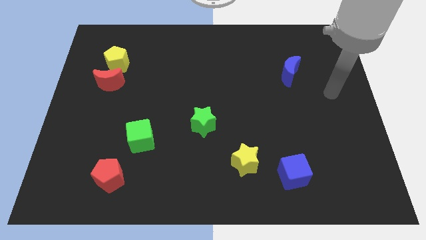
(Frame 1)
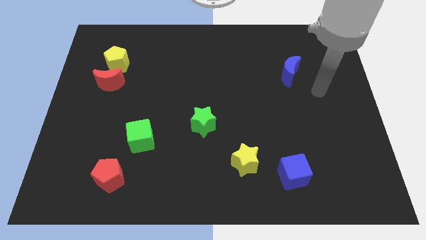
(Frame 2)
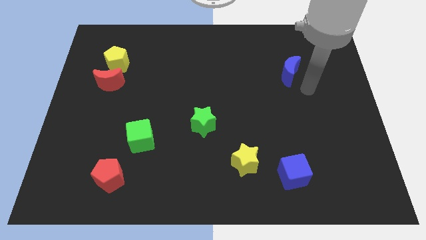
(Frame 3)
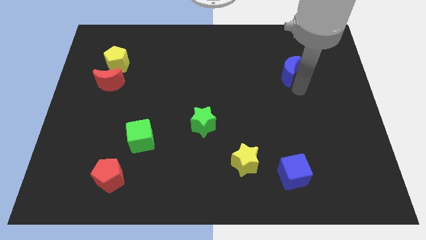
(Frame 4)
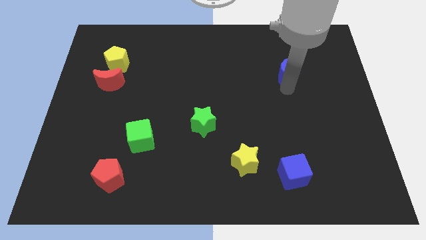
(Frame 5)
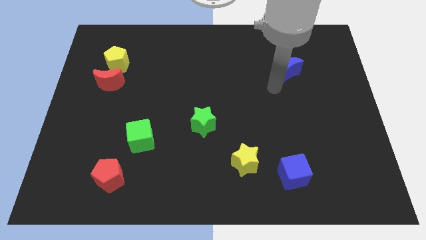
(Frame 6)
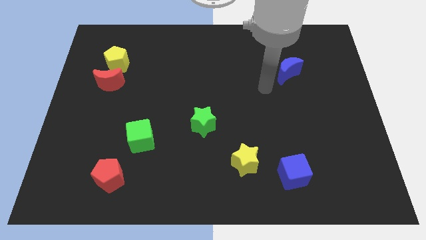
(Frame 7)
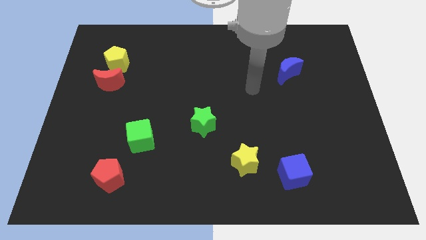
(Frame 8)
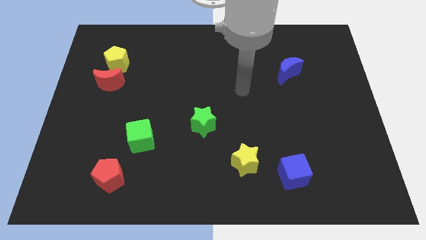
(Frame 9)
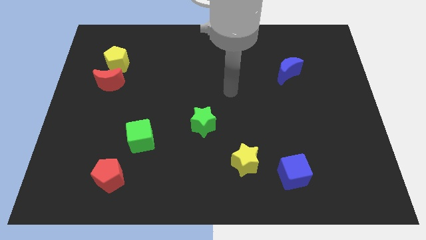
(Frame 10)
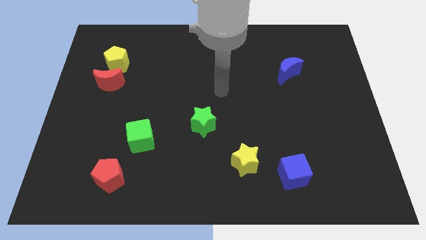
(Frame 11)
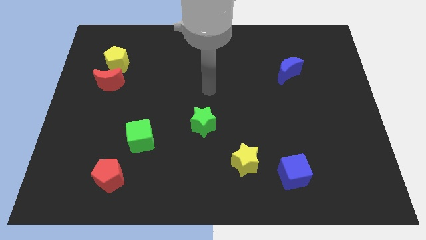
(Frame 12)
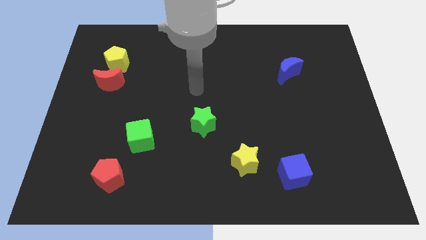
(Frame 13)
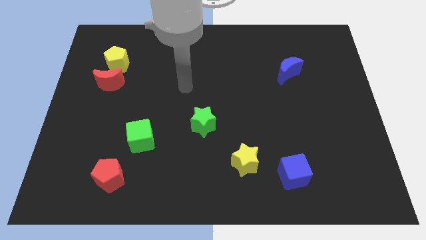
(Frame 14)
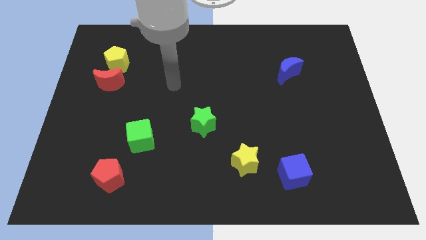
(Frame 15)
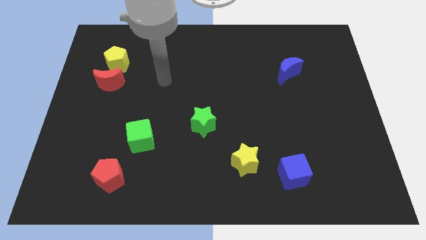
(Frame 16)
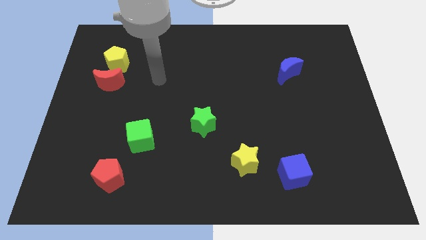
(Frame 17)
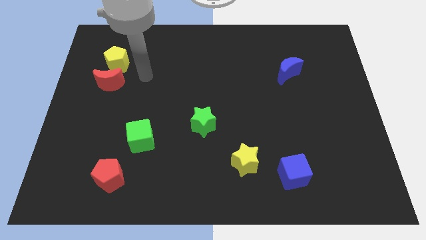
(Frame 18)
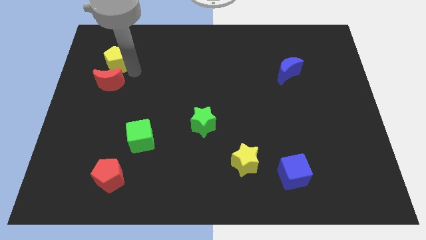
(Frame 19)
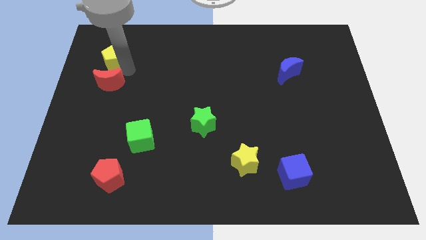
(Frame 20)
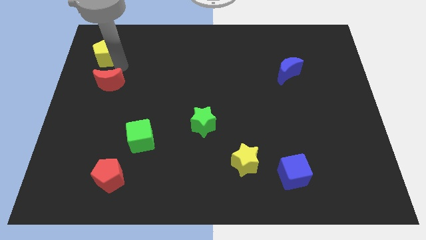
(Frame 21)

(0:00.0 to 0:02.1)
move the red moon away from the yellow pentagon

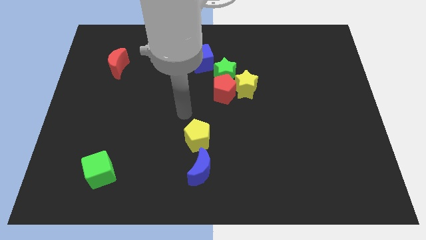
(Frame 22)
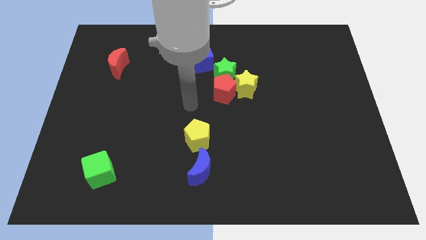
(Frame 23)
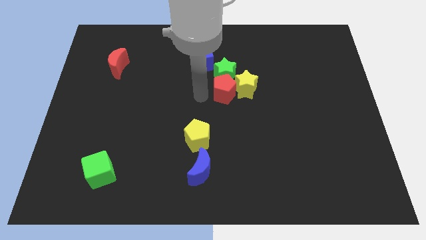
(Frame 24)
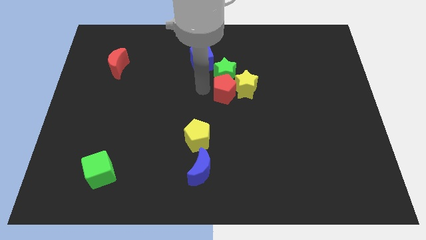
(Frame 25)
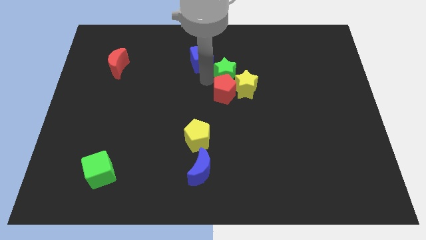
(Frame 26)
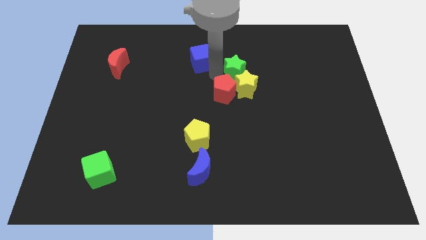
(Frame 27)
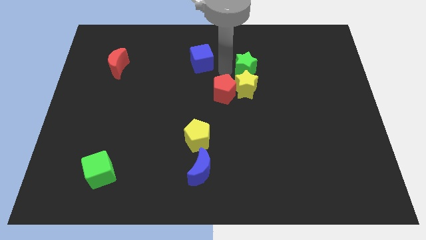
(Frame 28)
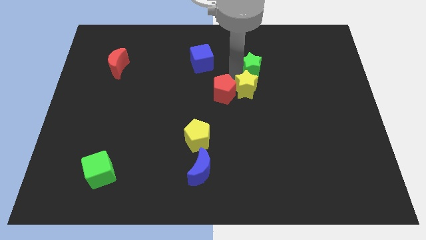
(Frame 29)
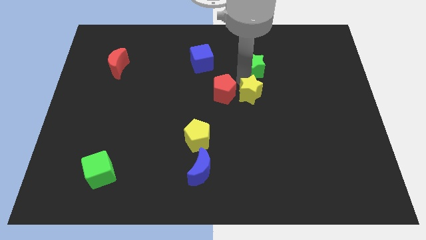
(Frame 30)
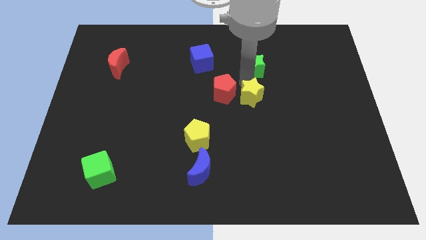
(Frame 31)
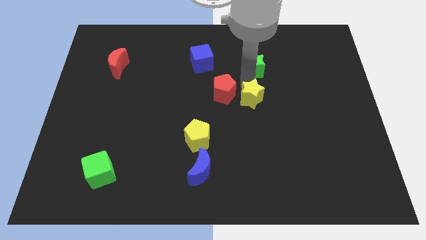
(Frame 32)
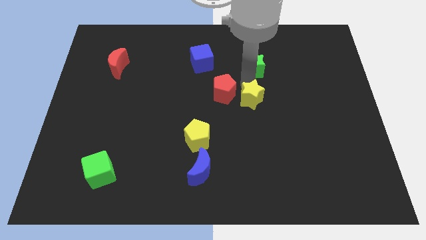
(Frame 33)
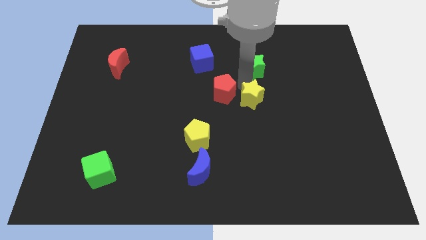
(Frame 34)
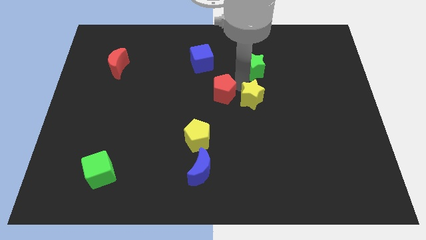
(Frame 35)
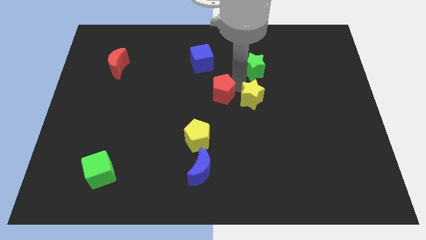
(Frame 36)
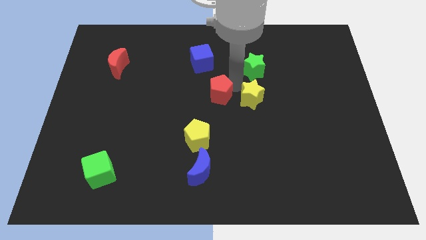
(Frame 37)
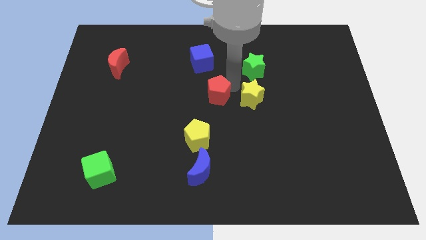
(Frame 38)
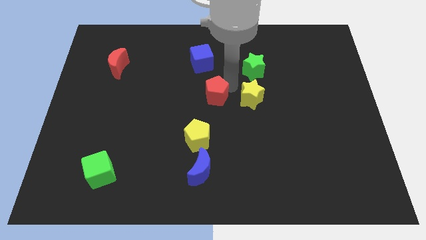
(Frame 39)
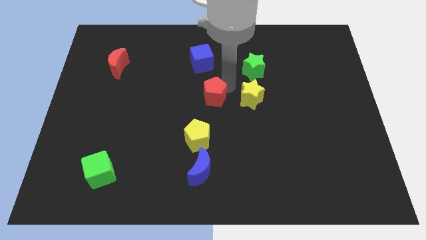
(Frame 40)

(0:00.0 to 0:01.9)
pull the red pentagon apart from the yellow star and green star

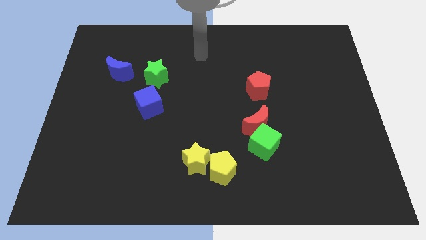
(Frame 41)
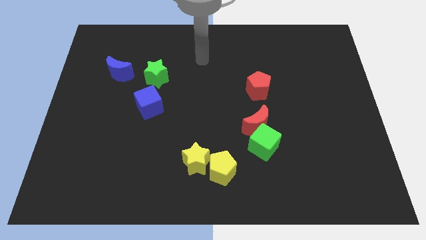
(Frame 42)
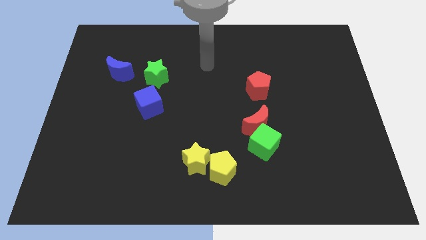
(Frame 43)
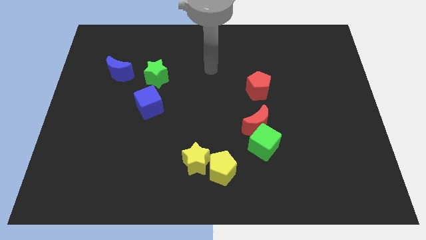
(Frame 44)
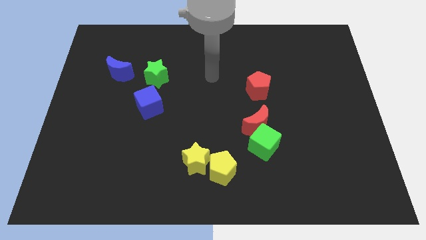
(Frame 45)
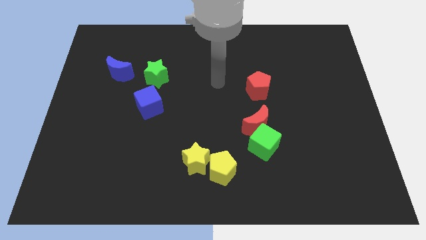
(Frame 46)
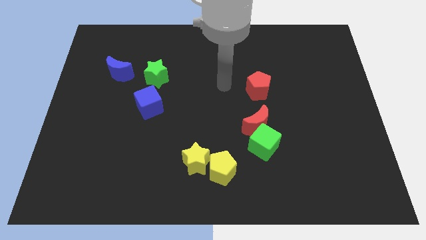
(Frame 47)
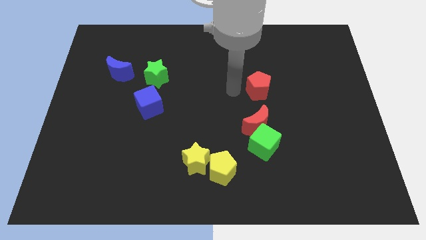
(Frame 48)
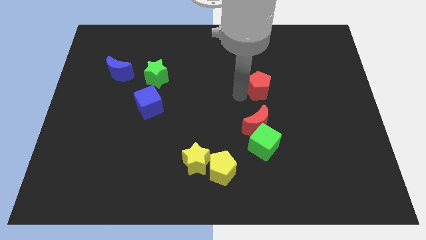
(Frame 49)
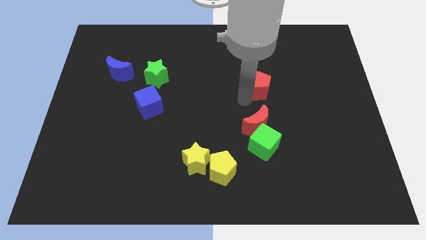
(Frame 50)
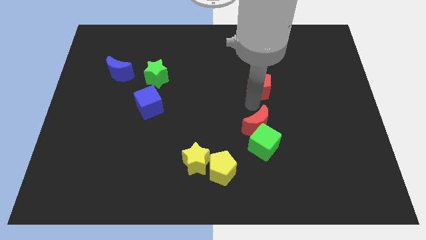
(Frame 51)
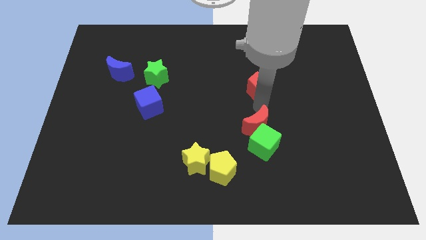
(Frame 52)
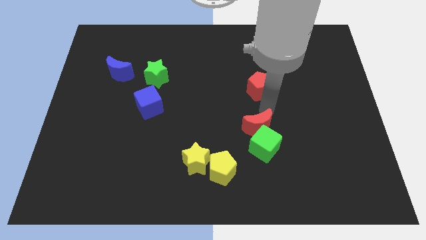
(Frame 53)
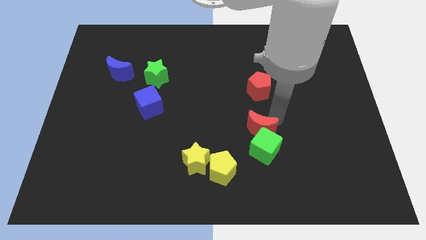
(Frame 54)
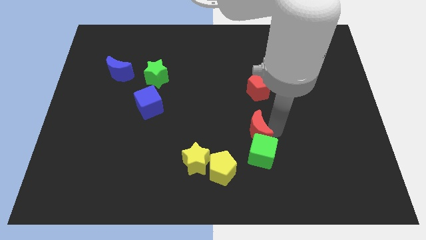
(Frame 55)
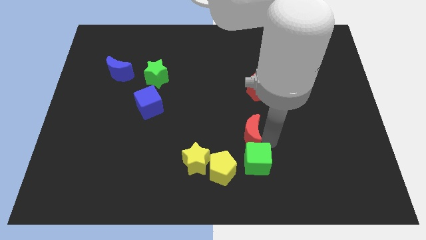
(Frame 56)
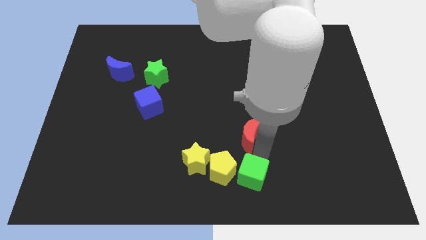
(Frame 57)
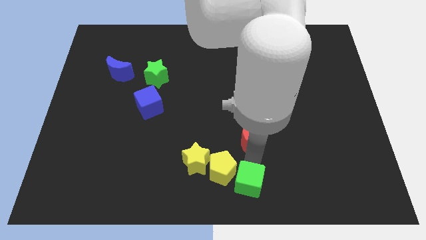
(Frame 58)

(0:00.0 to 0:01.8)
move the red moon away from the green cube

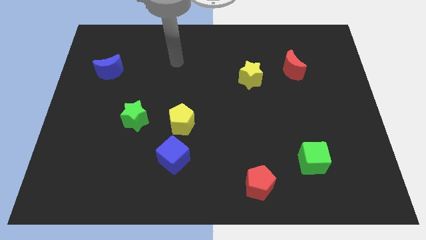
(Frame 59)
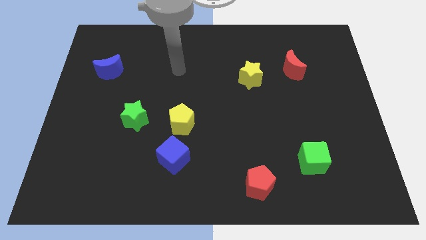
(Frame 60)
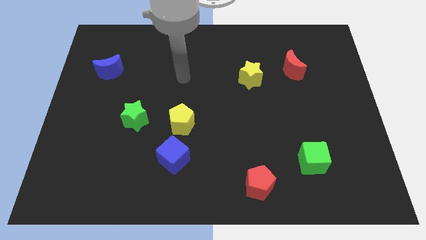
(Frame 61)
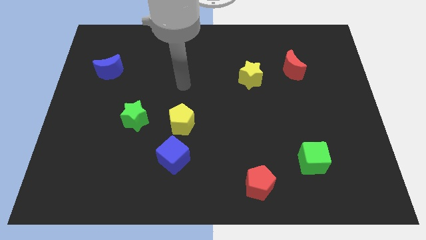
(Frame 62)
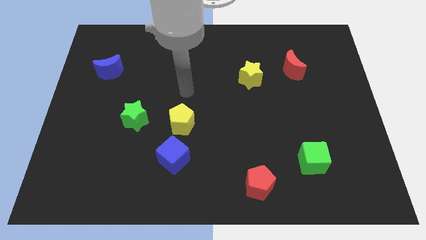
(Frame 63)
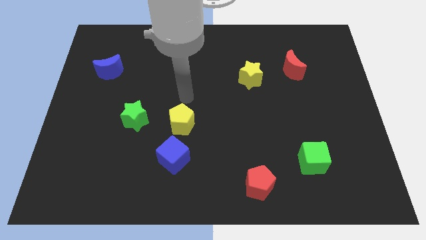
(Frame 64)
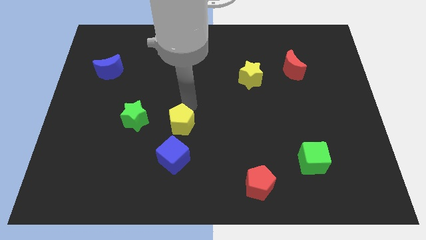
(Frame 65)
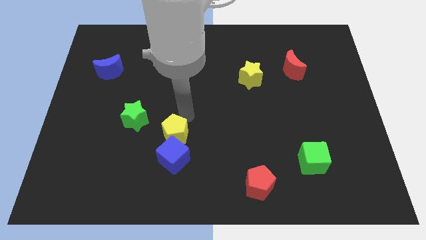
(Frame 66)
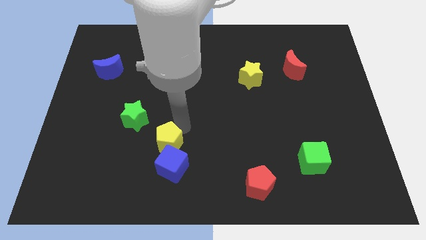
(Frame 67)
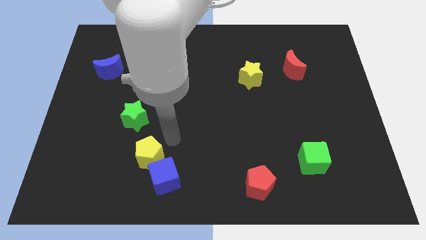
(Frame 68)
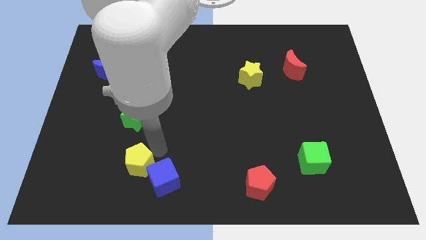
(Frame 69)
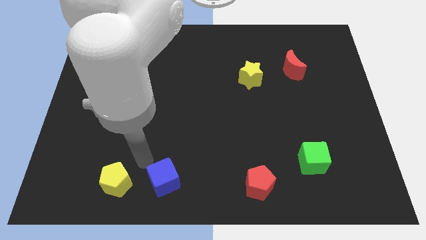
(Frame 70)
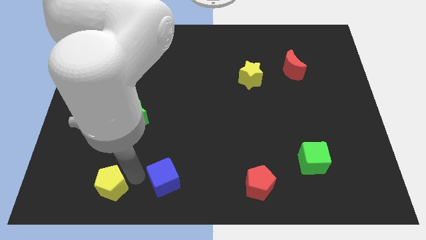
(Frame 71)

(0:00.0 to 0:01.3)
move the blue cube away from the yellow pentagon

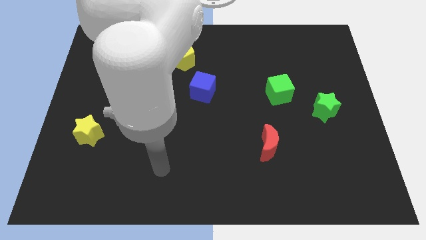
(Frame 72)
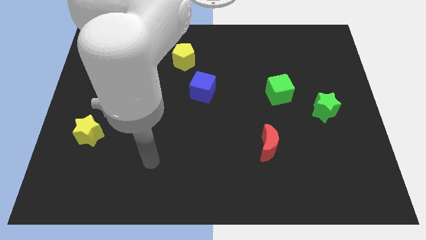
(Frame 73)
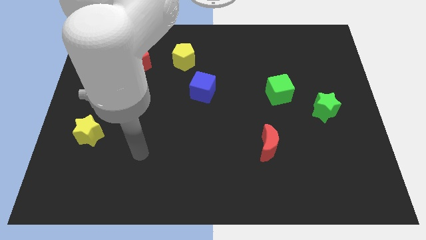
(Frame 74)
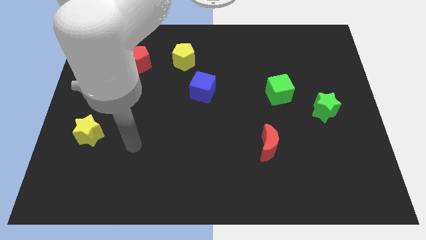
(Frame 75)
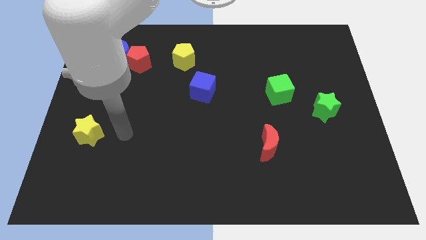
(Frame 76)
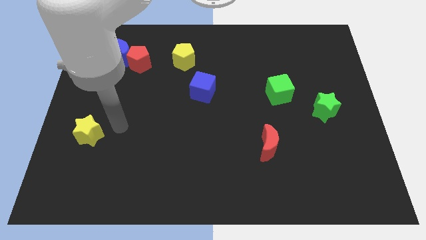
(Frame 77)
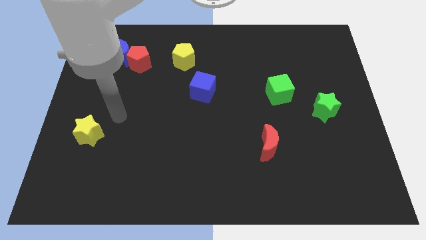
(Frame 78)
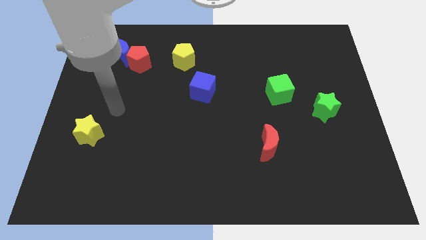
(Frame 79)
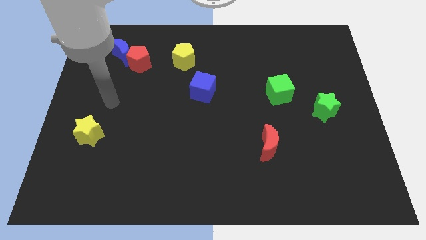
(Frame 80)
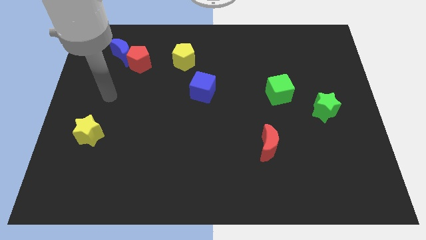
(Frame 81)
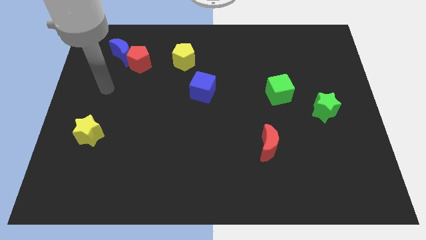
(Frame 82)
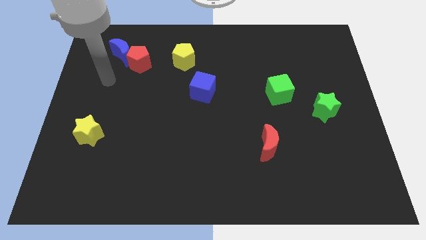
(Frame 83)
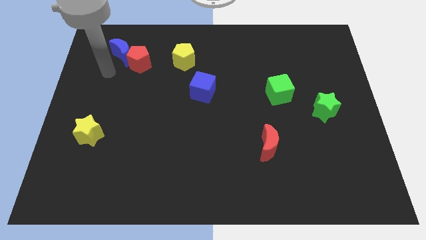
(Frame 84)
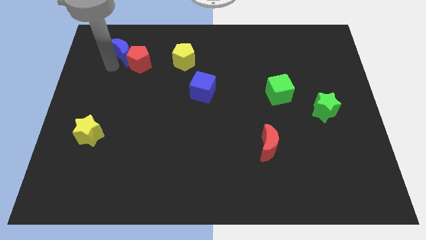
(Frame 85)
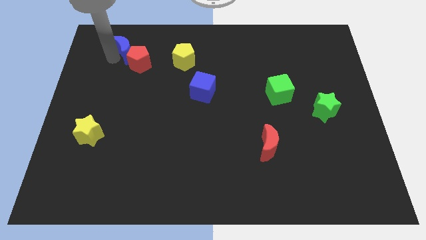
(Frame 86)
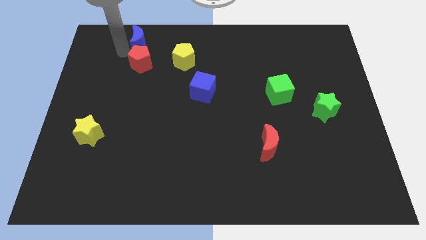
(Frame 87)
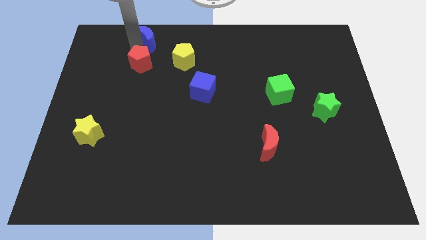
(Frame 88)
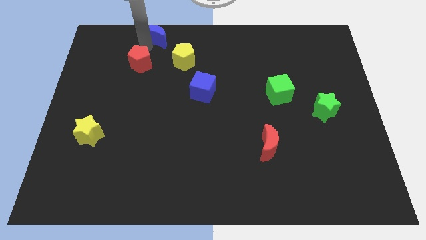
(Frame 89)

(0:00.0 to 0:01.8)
separate the red pentagon from the blue moon

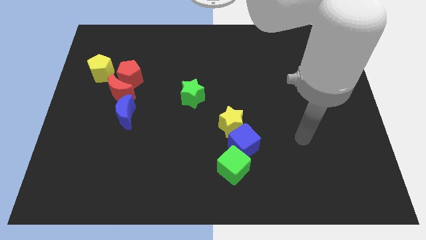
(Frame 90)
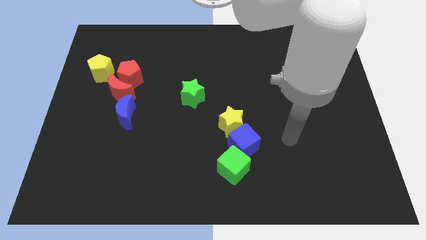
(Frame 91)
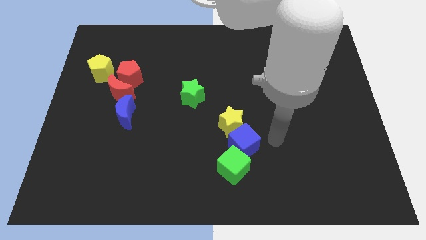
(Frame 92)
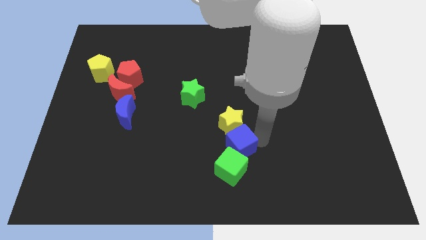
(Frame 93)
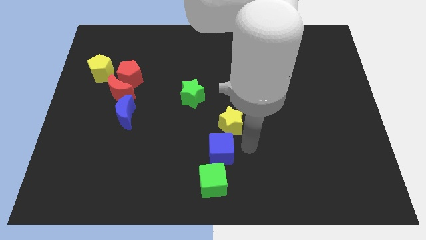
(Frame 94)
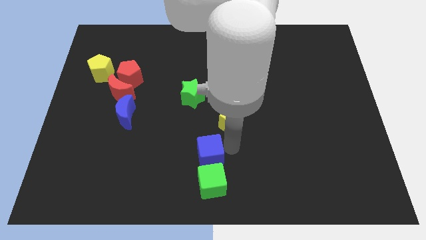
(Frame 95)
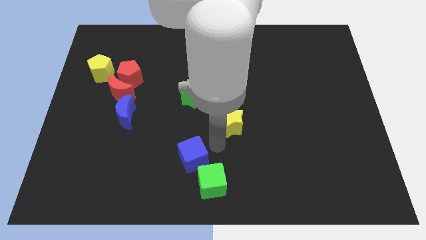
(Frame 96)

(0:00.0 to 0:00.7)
move the yellow star away from the blue cube
